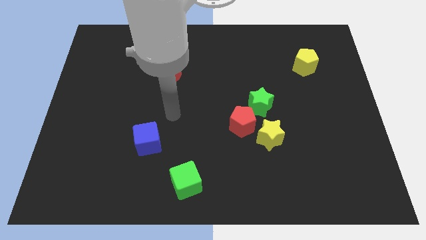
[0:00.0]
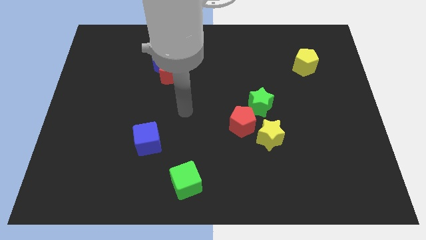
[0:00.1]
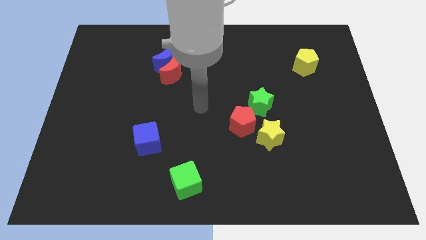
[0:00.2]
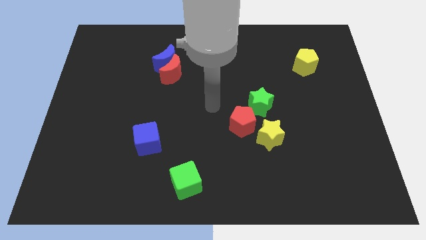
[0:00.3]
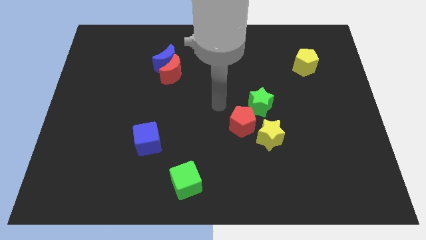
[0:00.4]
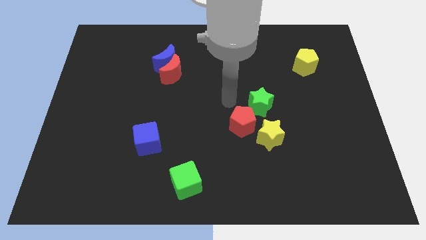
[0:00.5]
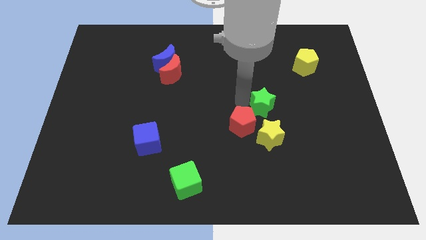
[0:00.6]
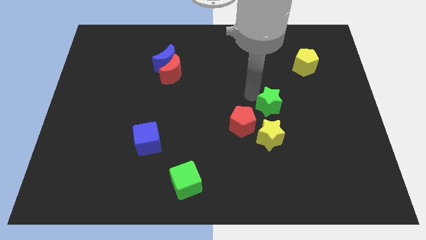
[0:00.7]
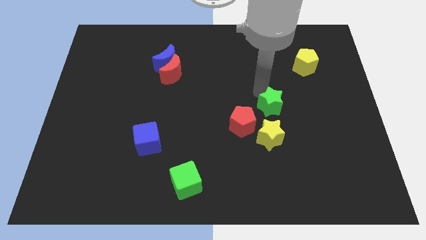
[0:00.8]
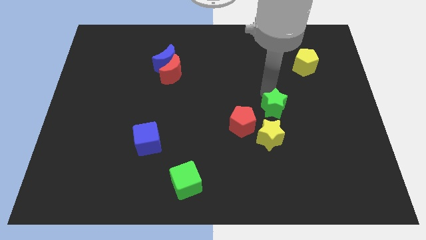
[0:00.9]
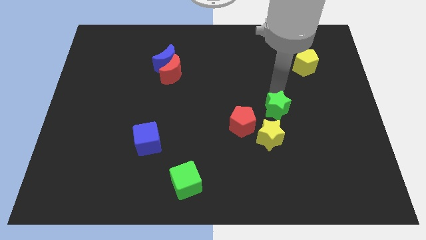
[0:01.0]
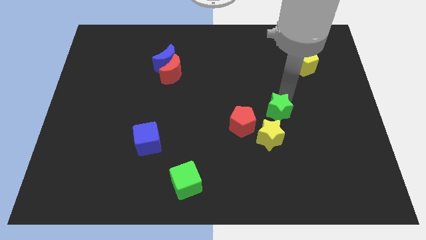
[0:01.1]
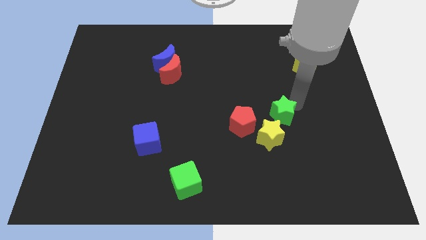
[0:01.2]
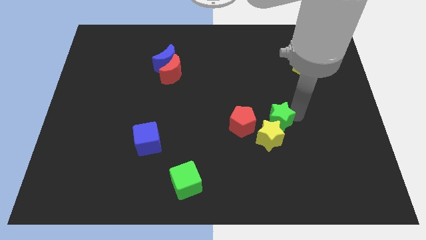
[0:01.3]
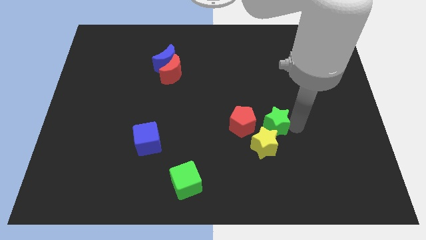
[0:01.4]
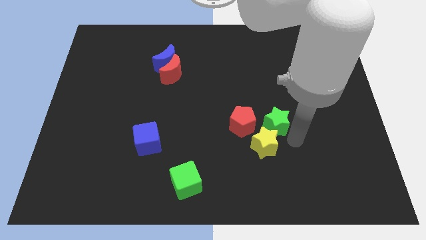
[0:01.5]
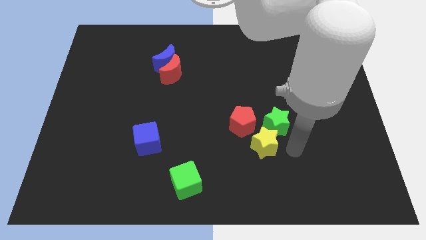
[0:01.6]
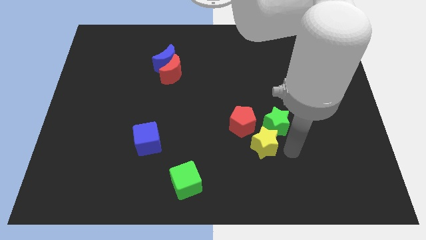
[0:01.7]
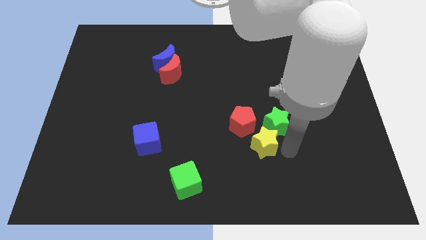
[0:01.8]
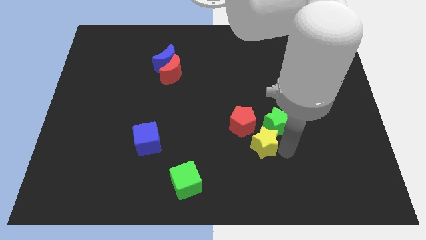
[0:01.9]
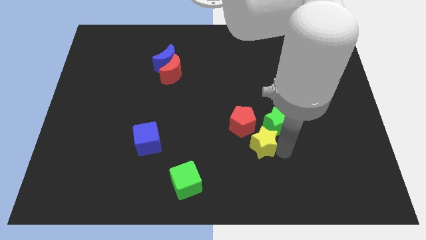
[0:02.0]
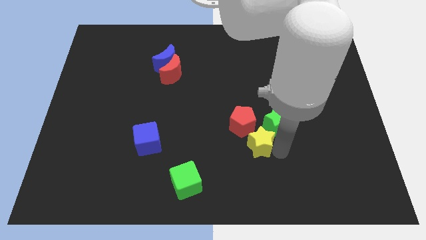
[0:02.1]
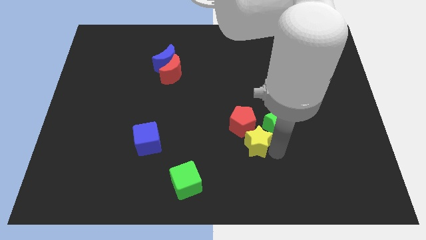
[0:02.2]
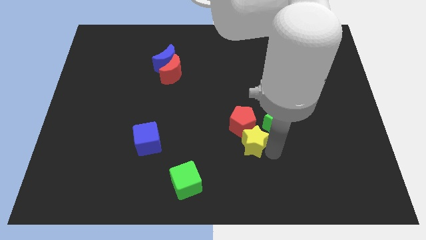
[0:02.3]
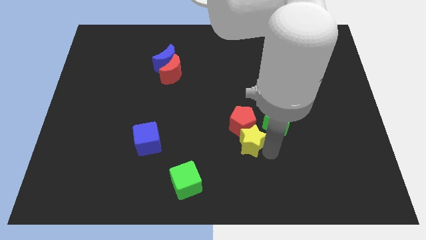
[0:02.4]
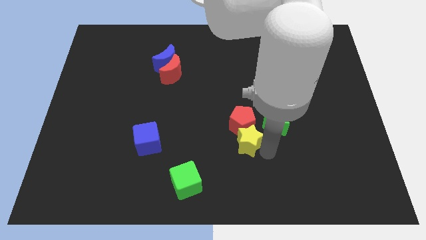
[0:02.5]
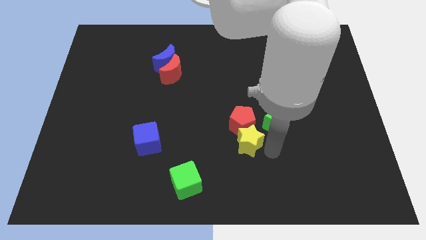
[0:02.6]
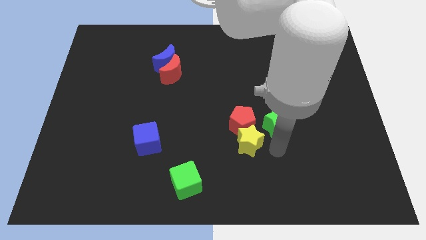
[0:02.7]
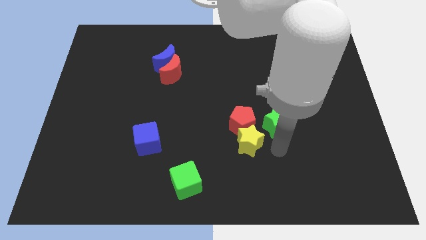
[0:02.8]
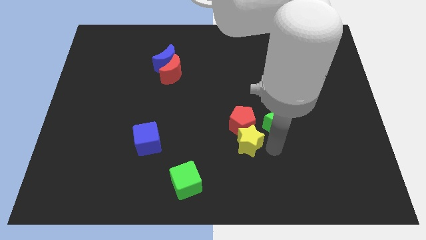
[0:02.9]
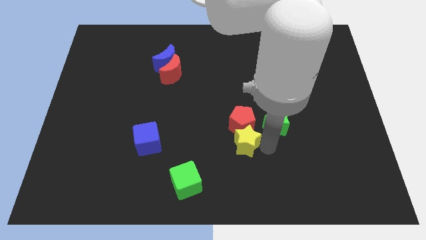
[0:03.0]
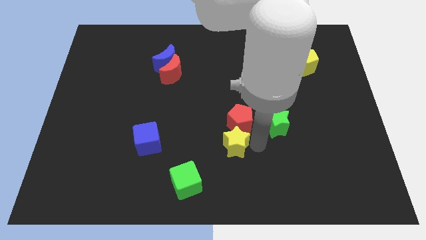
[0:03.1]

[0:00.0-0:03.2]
push the yellow star left a little

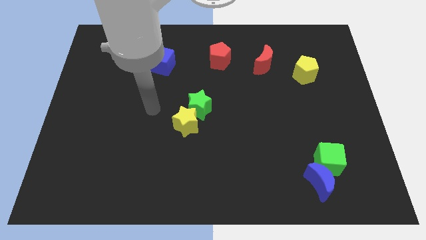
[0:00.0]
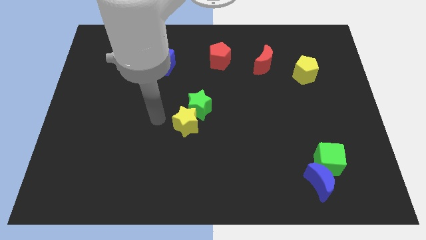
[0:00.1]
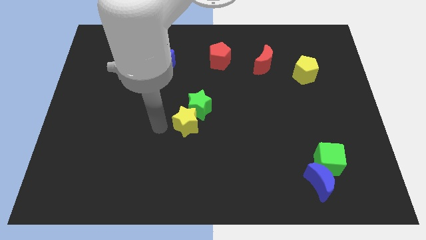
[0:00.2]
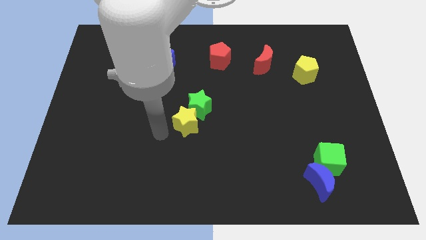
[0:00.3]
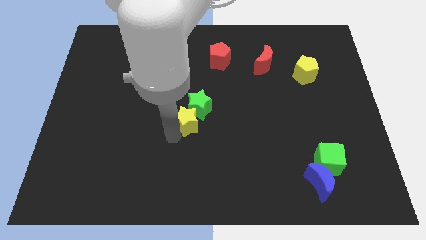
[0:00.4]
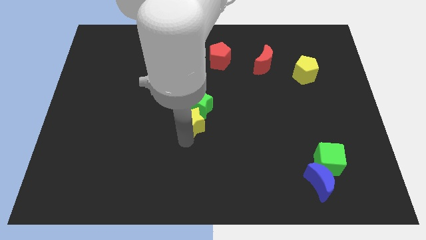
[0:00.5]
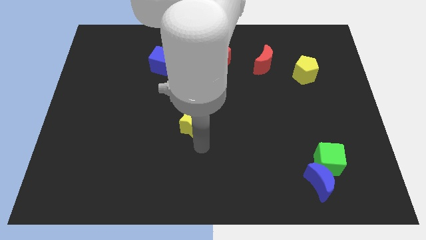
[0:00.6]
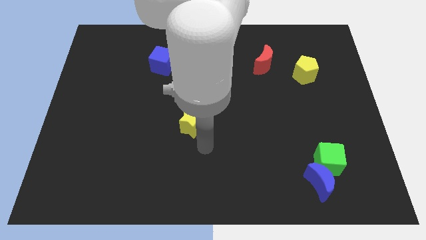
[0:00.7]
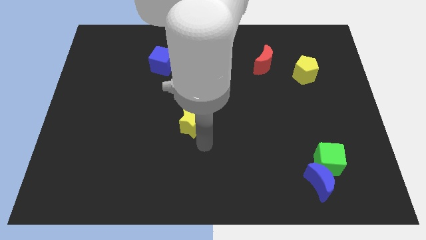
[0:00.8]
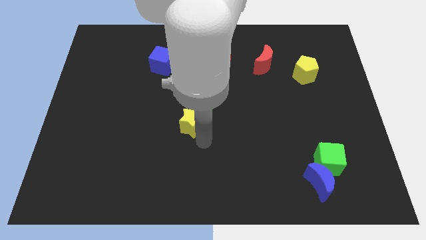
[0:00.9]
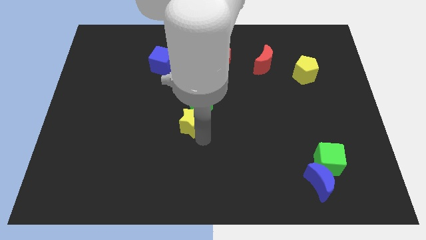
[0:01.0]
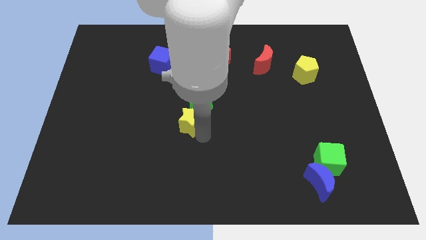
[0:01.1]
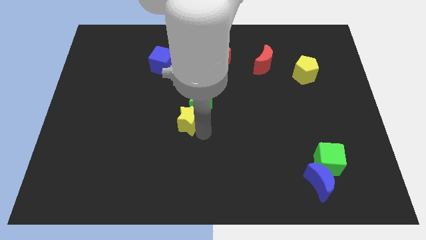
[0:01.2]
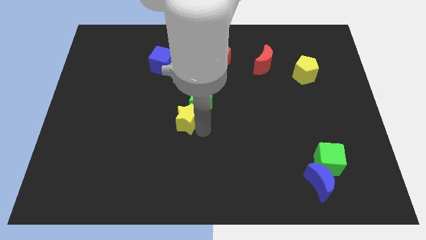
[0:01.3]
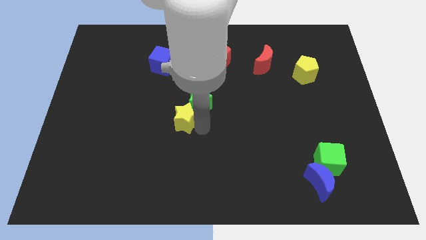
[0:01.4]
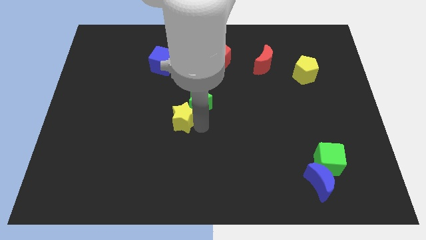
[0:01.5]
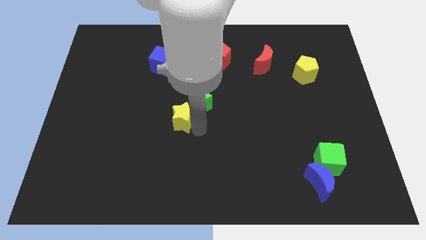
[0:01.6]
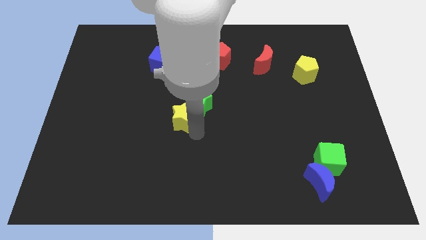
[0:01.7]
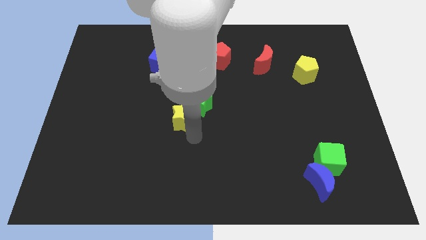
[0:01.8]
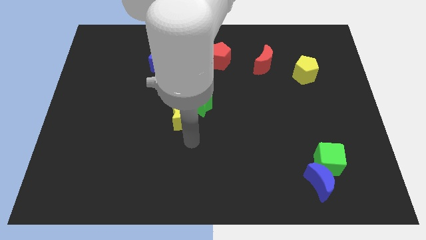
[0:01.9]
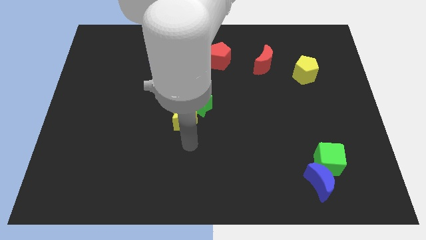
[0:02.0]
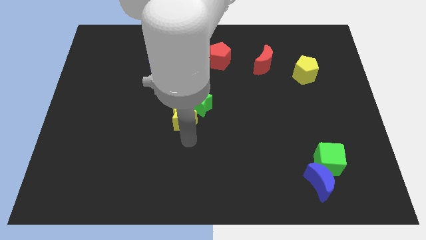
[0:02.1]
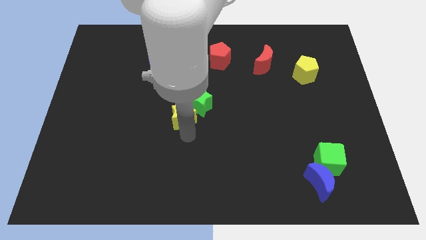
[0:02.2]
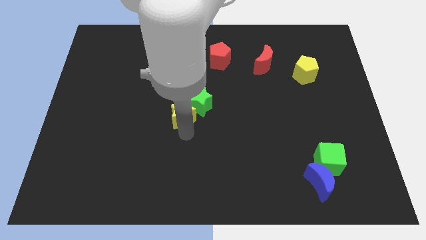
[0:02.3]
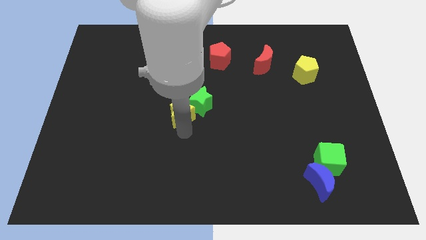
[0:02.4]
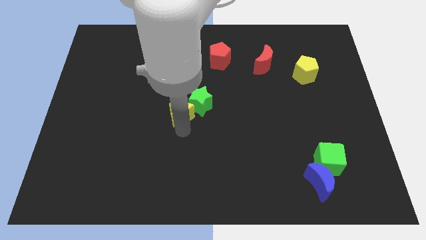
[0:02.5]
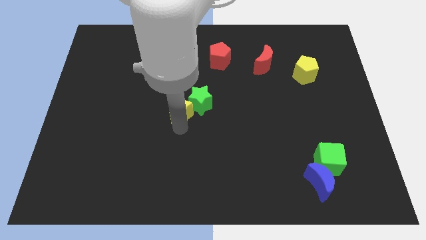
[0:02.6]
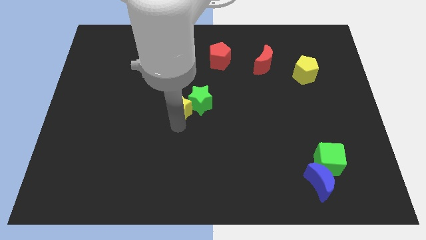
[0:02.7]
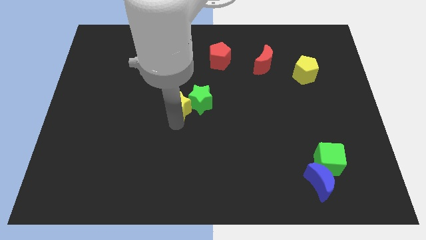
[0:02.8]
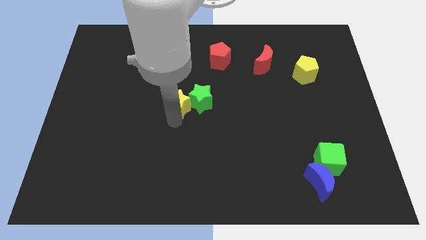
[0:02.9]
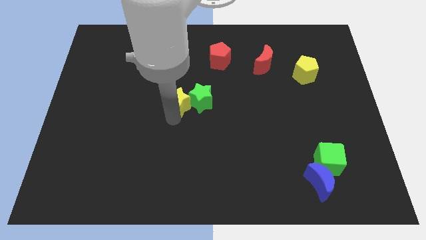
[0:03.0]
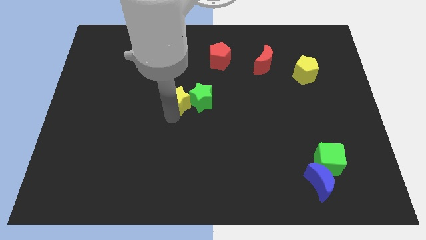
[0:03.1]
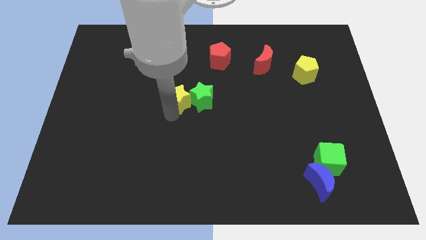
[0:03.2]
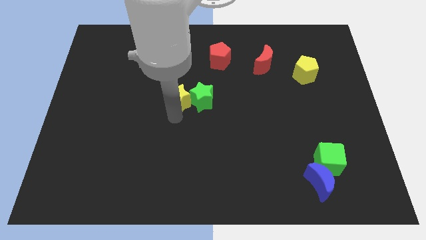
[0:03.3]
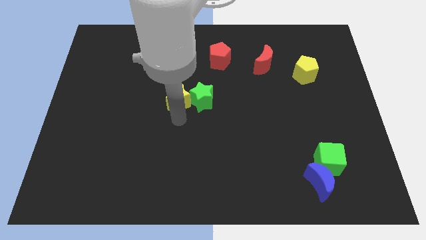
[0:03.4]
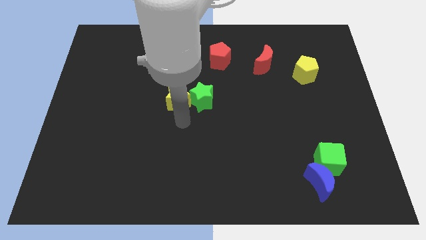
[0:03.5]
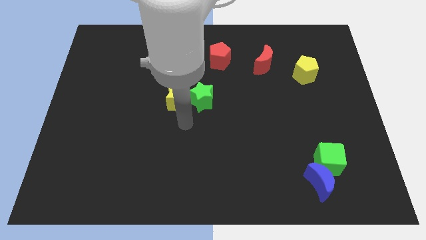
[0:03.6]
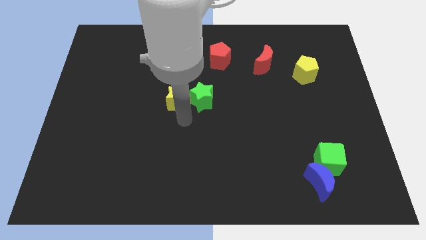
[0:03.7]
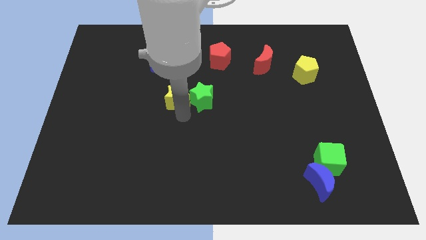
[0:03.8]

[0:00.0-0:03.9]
move the yellow star upwards a bit

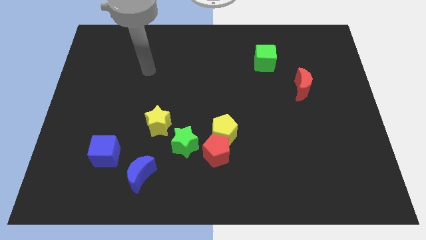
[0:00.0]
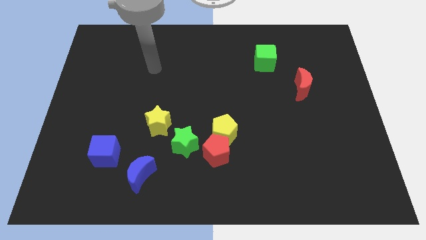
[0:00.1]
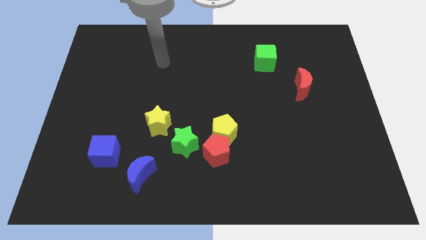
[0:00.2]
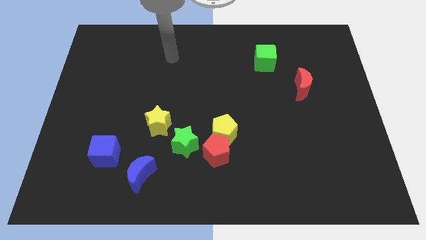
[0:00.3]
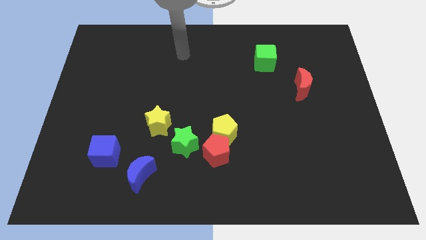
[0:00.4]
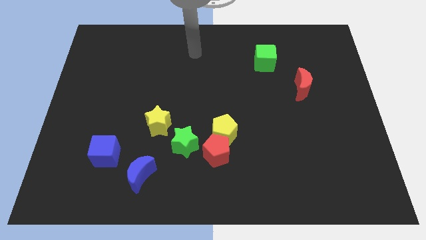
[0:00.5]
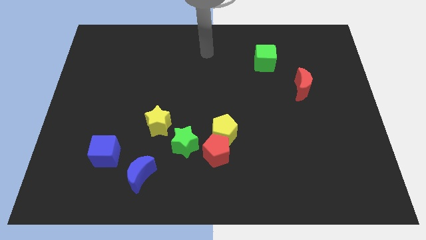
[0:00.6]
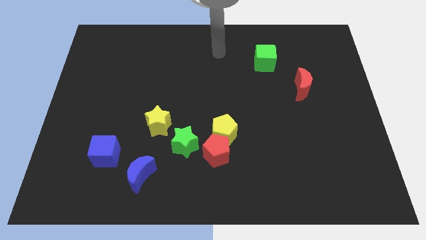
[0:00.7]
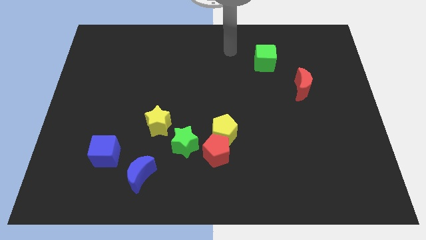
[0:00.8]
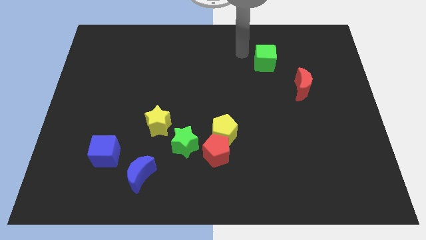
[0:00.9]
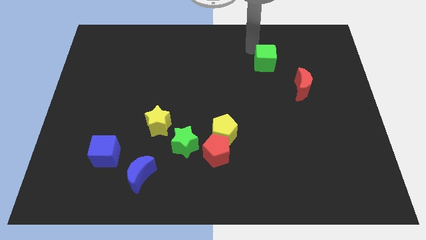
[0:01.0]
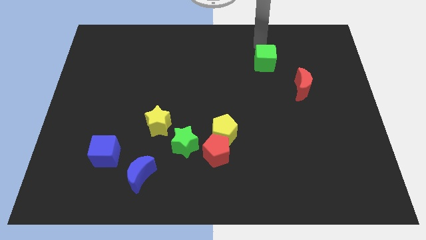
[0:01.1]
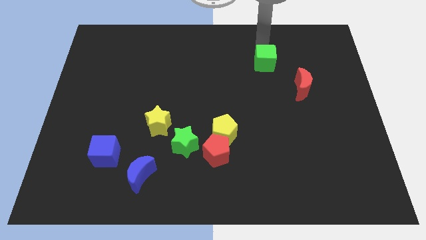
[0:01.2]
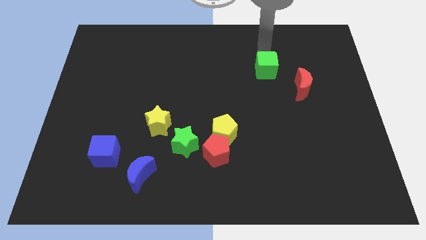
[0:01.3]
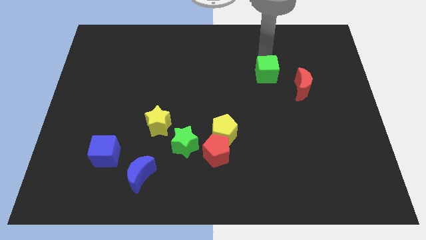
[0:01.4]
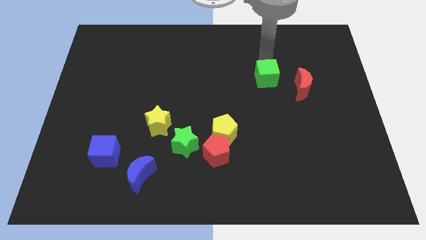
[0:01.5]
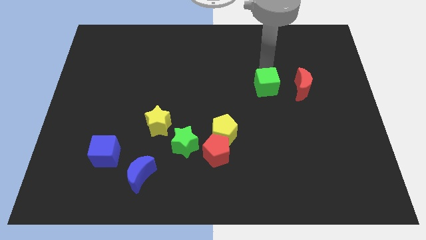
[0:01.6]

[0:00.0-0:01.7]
slide the green cube a little bit downwards
